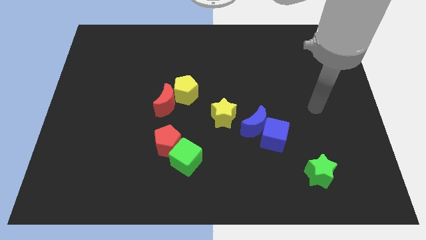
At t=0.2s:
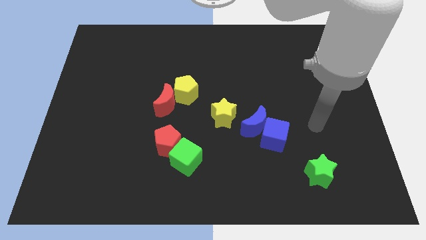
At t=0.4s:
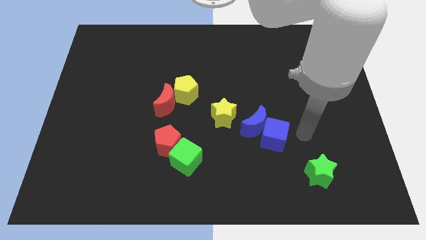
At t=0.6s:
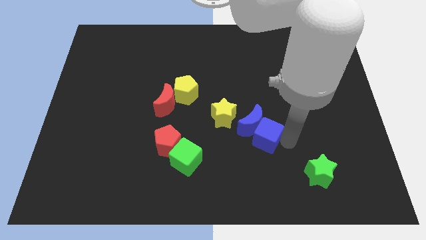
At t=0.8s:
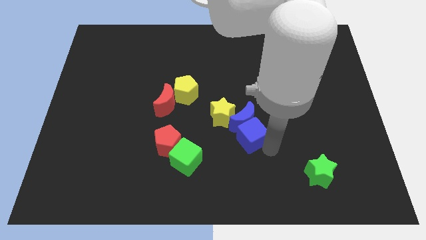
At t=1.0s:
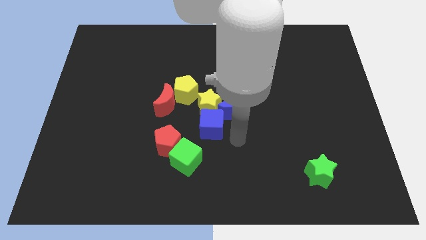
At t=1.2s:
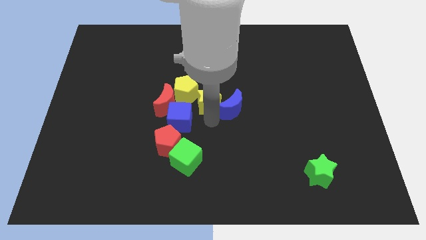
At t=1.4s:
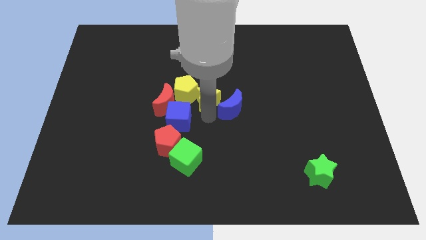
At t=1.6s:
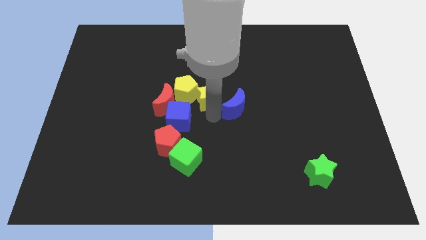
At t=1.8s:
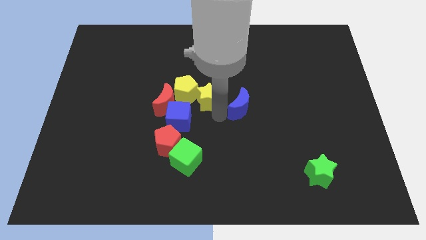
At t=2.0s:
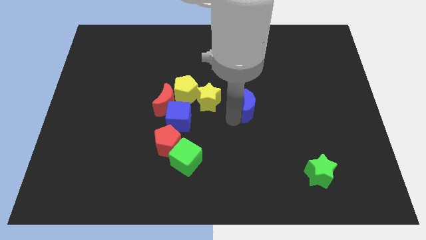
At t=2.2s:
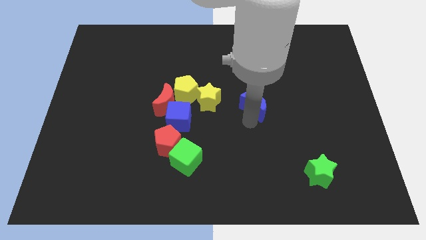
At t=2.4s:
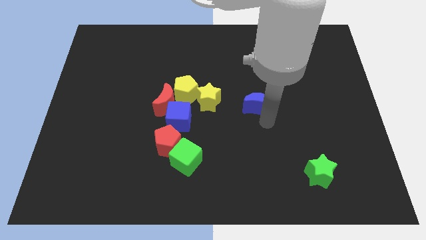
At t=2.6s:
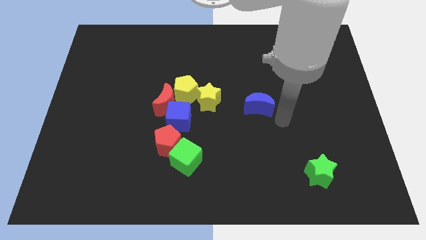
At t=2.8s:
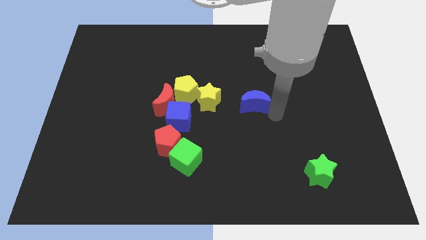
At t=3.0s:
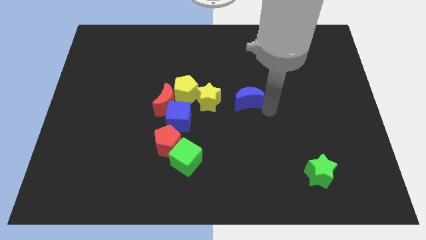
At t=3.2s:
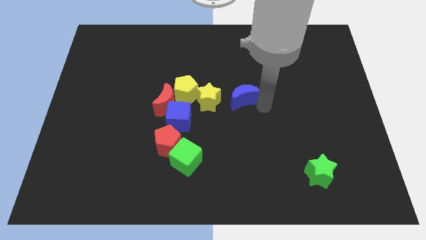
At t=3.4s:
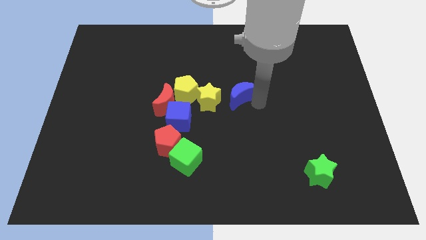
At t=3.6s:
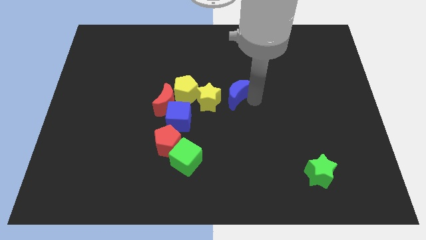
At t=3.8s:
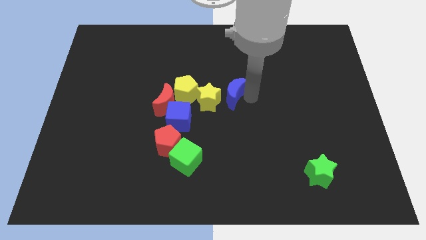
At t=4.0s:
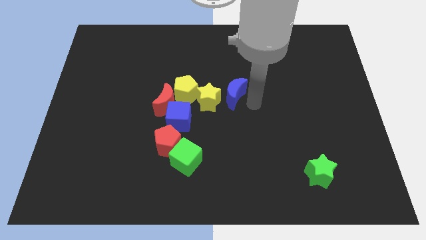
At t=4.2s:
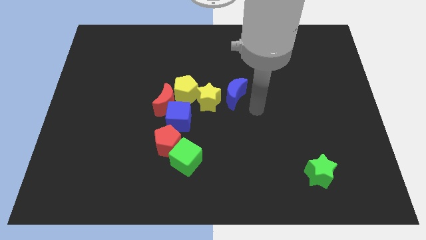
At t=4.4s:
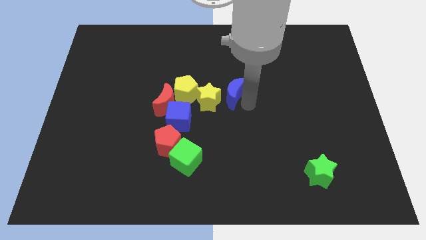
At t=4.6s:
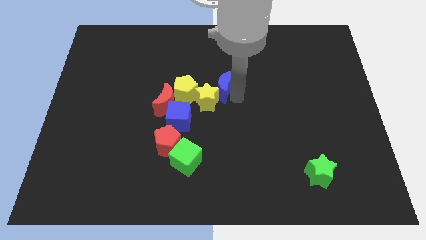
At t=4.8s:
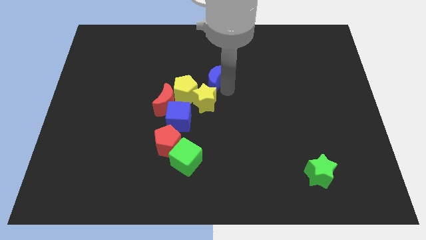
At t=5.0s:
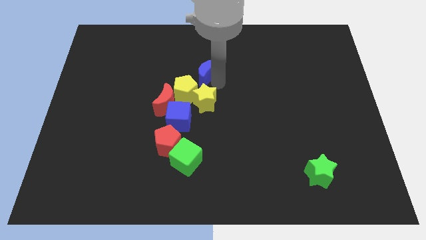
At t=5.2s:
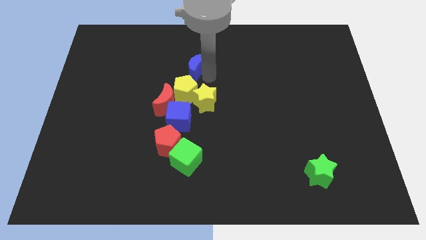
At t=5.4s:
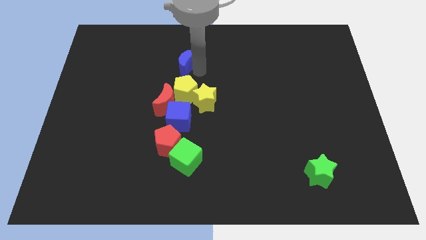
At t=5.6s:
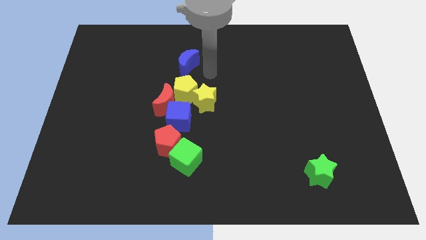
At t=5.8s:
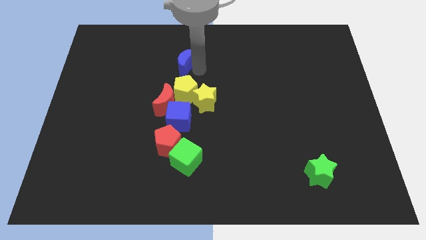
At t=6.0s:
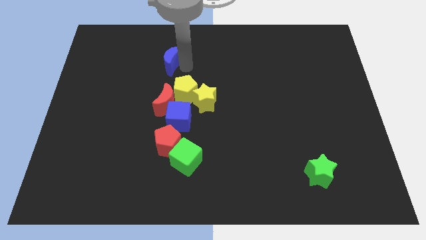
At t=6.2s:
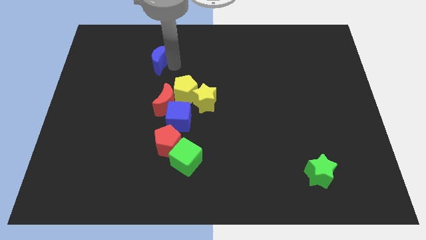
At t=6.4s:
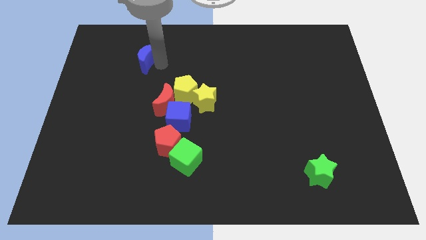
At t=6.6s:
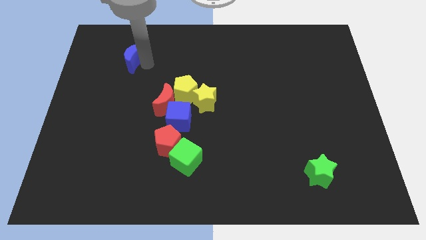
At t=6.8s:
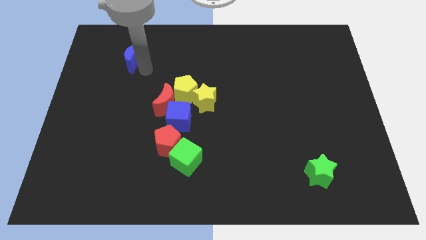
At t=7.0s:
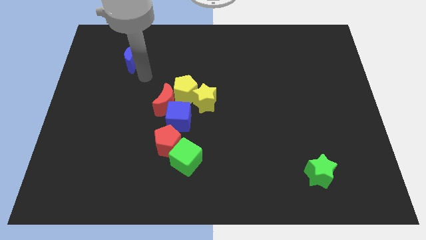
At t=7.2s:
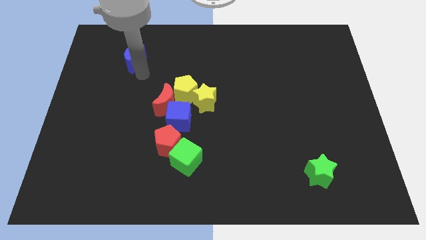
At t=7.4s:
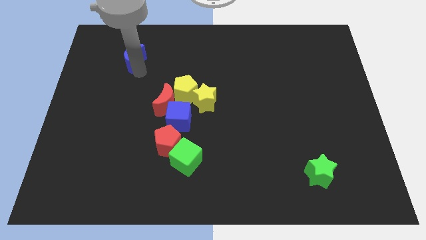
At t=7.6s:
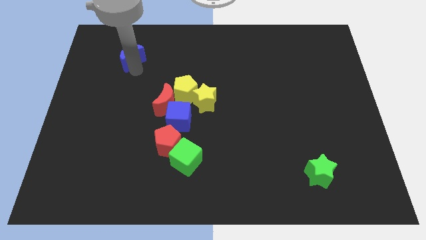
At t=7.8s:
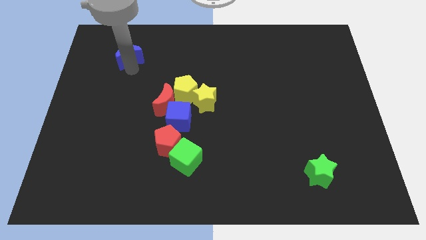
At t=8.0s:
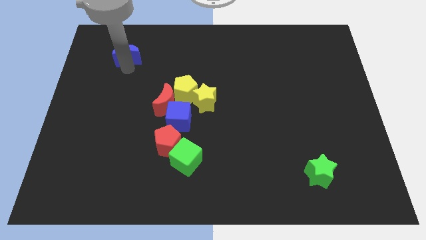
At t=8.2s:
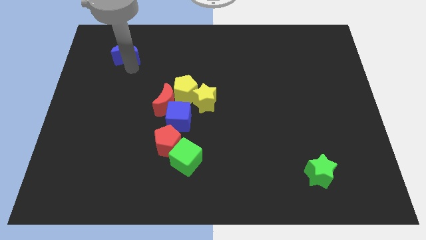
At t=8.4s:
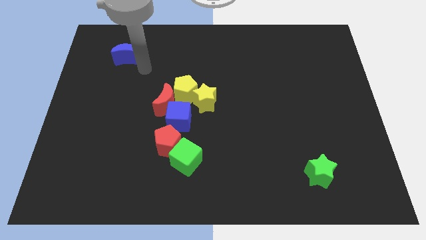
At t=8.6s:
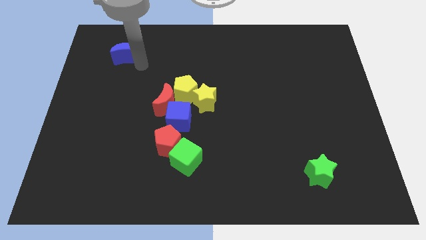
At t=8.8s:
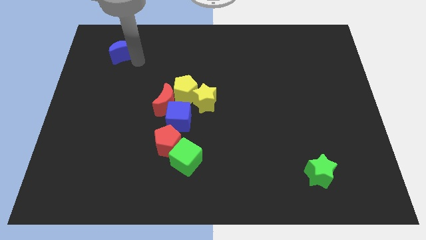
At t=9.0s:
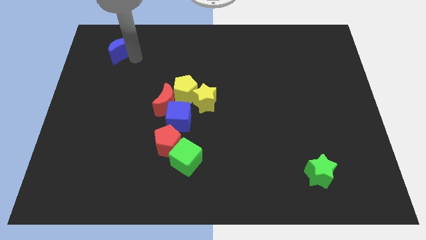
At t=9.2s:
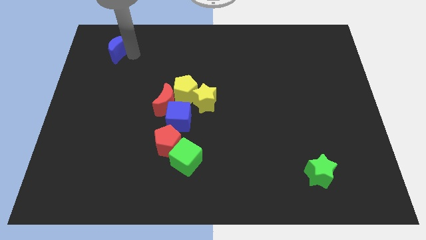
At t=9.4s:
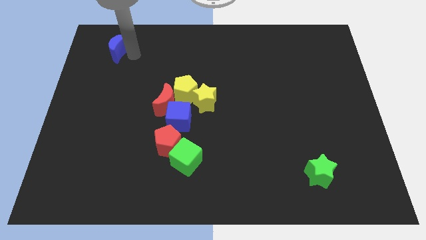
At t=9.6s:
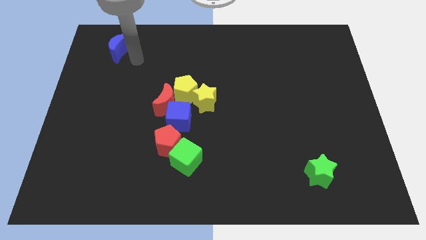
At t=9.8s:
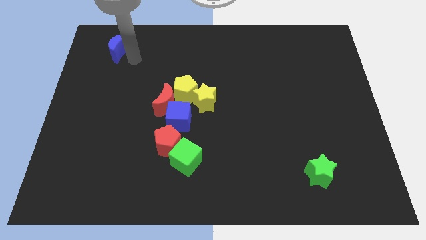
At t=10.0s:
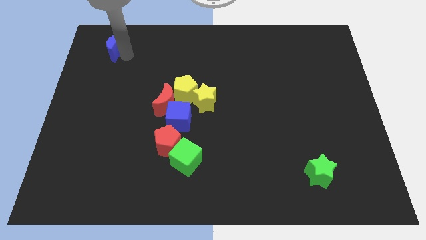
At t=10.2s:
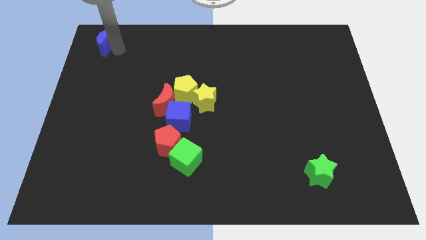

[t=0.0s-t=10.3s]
slide the blue moon to the upper left corner

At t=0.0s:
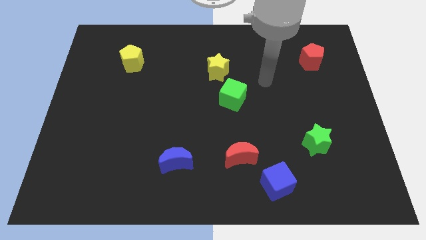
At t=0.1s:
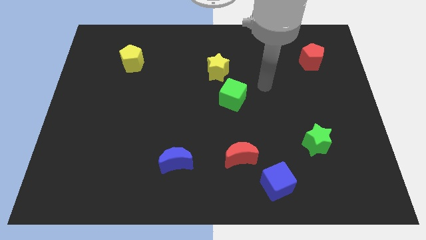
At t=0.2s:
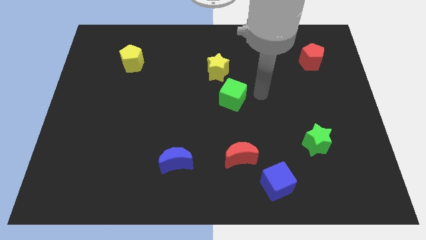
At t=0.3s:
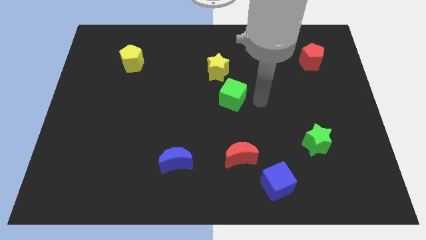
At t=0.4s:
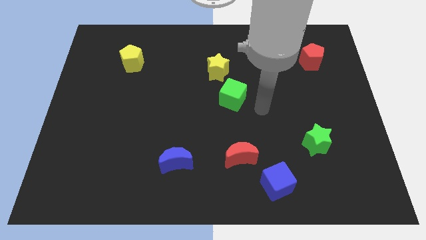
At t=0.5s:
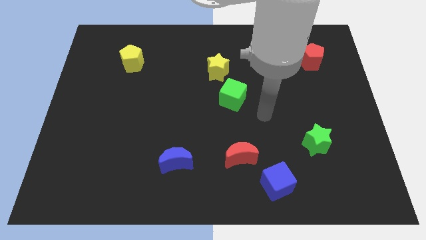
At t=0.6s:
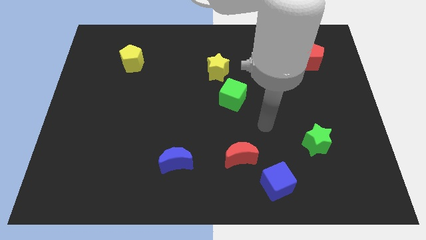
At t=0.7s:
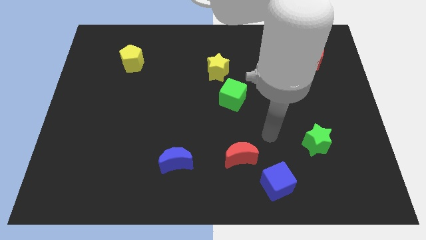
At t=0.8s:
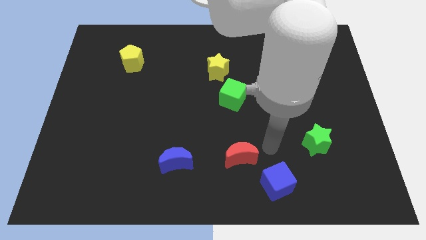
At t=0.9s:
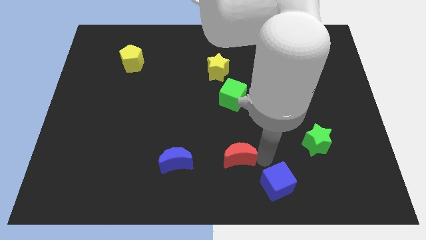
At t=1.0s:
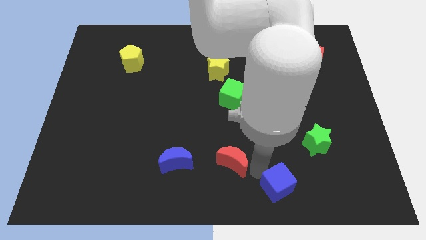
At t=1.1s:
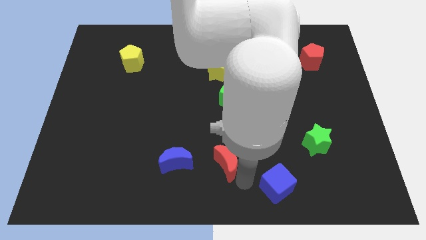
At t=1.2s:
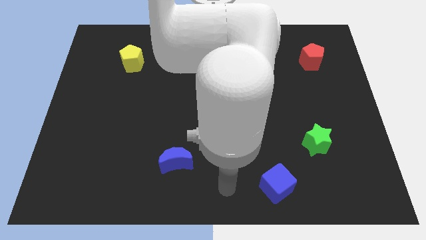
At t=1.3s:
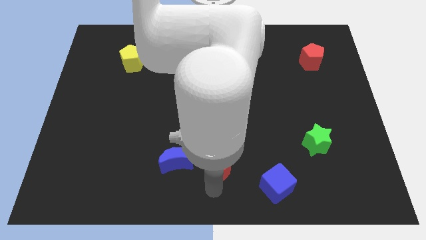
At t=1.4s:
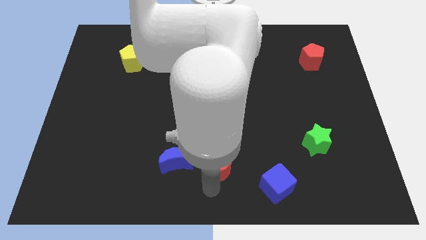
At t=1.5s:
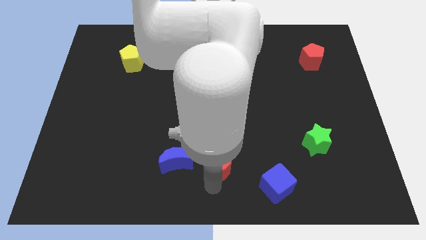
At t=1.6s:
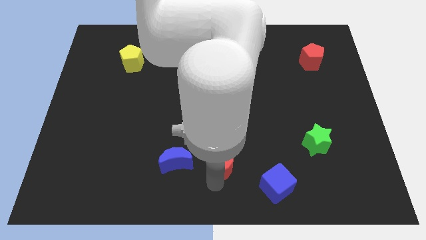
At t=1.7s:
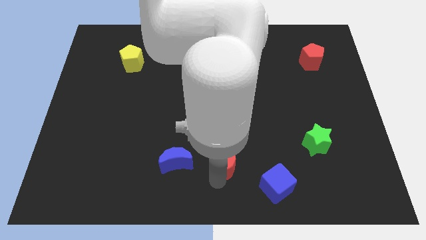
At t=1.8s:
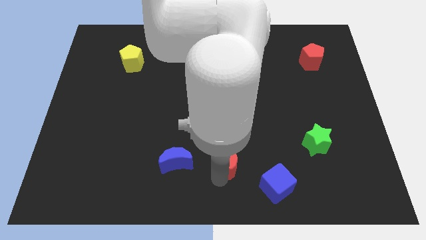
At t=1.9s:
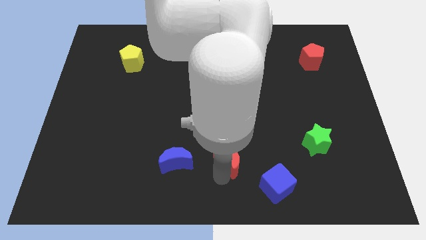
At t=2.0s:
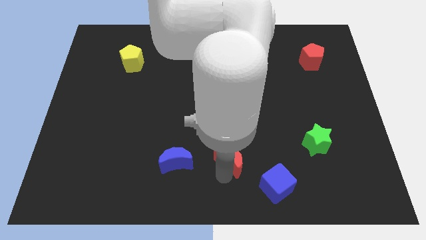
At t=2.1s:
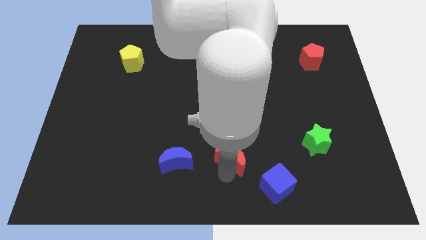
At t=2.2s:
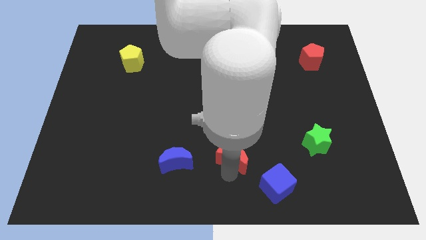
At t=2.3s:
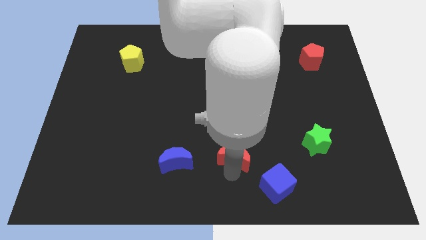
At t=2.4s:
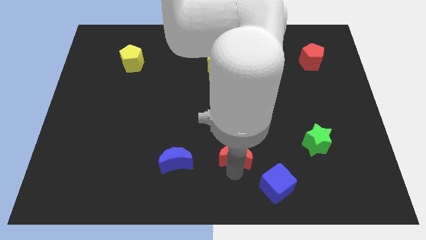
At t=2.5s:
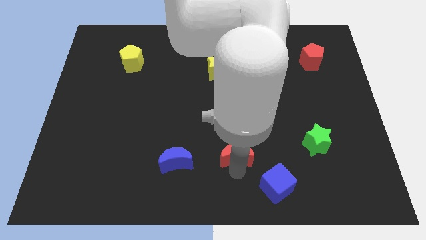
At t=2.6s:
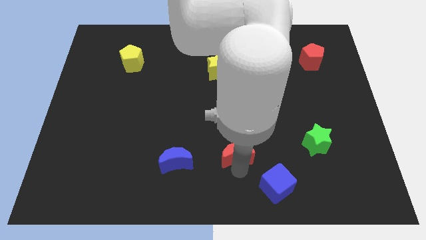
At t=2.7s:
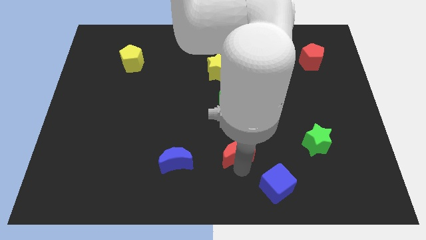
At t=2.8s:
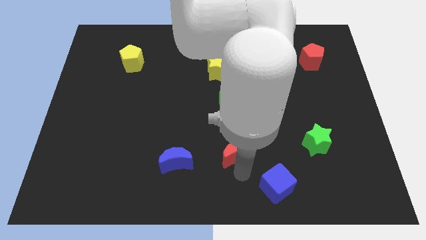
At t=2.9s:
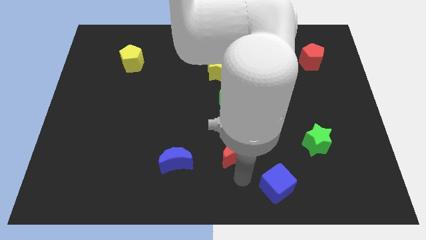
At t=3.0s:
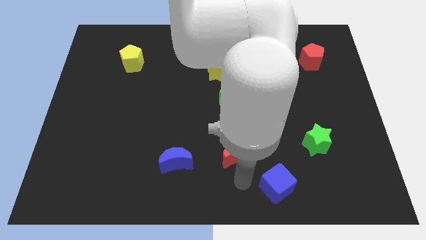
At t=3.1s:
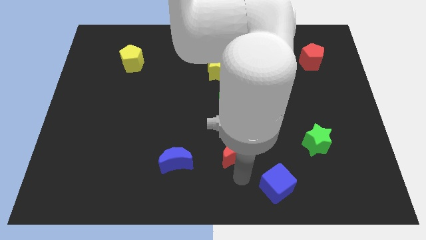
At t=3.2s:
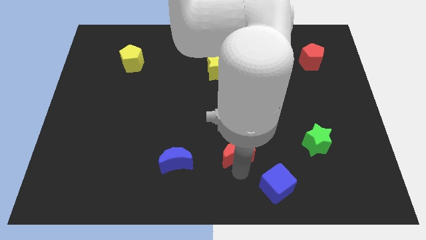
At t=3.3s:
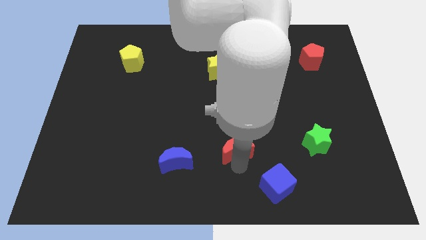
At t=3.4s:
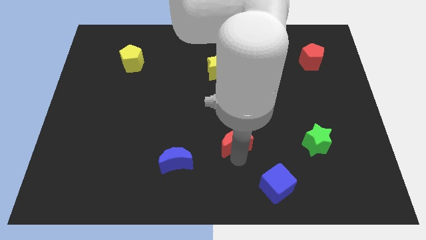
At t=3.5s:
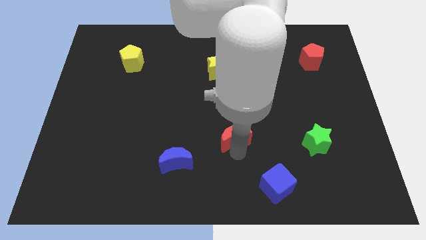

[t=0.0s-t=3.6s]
push the red moon to the middle
